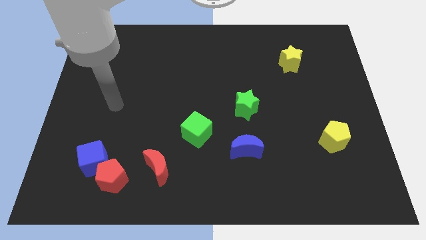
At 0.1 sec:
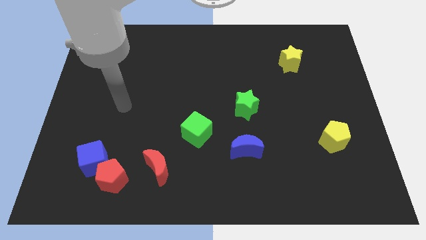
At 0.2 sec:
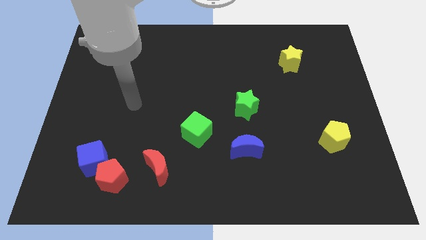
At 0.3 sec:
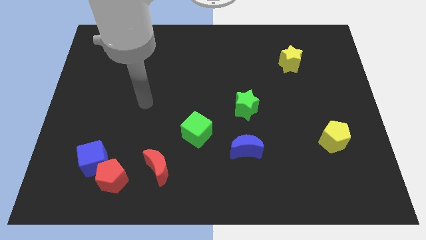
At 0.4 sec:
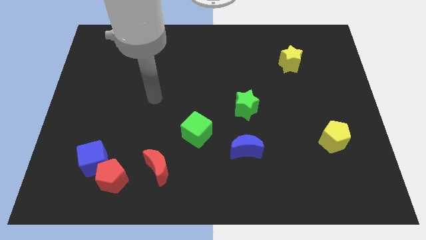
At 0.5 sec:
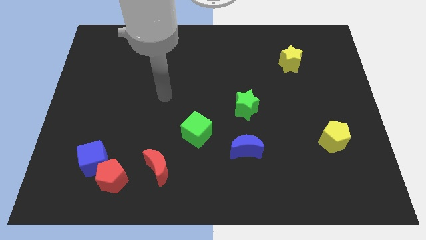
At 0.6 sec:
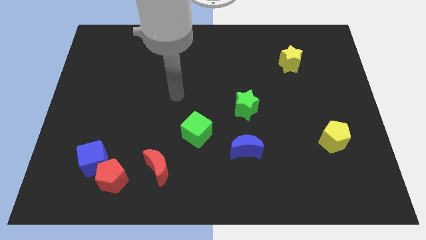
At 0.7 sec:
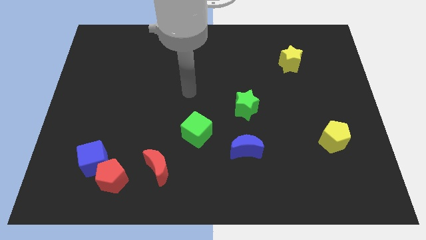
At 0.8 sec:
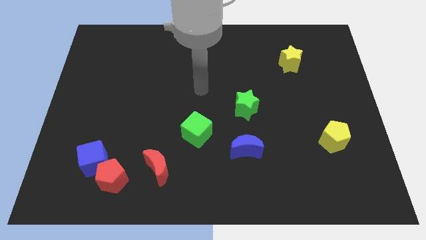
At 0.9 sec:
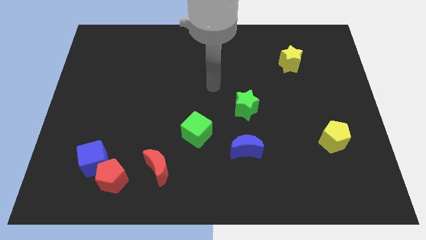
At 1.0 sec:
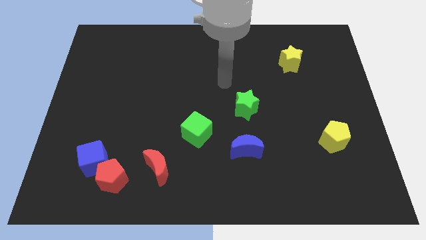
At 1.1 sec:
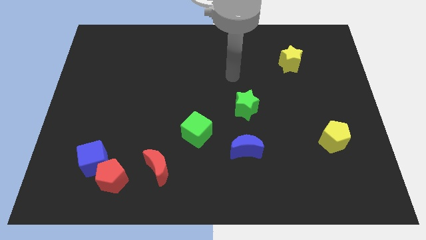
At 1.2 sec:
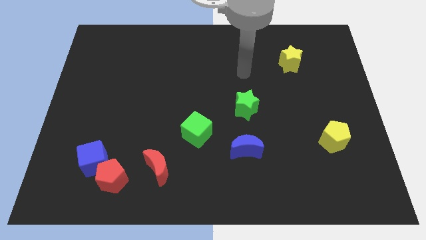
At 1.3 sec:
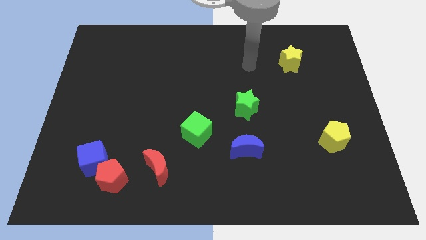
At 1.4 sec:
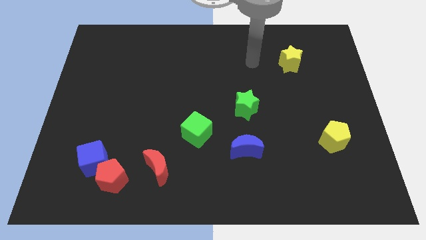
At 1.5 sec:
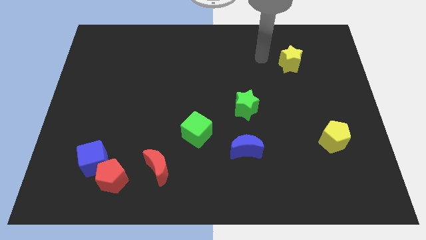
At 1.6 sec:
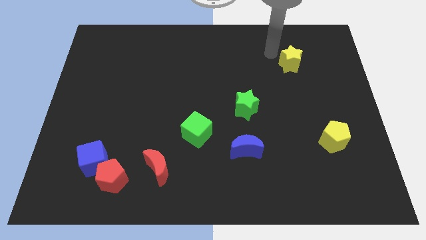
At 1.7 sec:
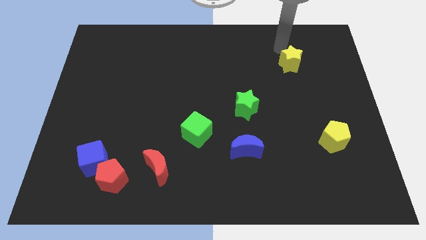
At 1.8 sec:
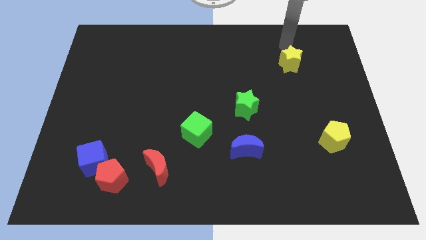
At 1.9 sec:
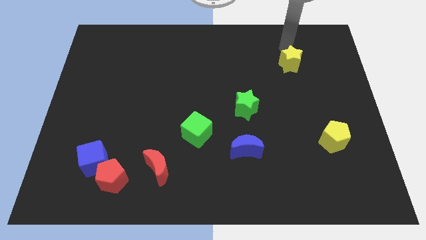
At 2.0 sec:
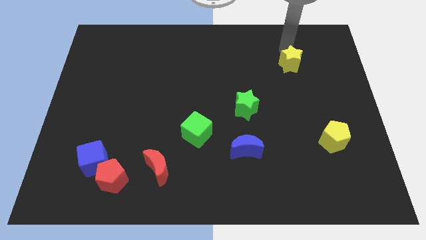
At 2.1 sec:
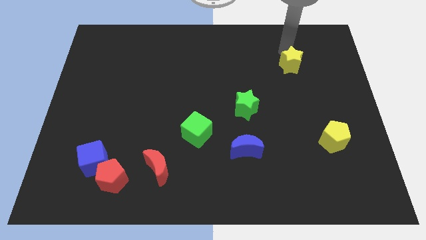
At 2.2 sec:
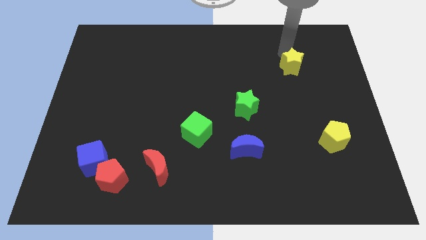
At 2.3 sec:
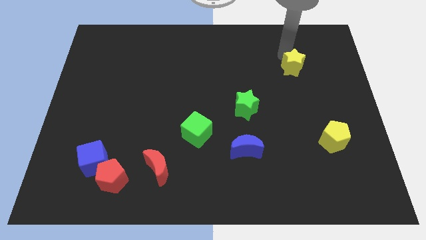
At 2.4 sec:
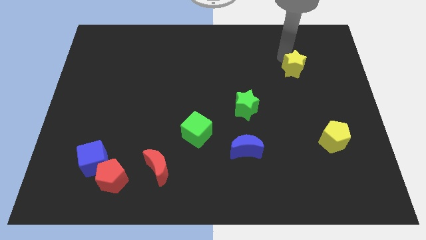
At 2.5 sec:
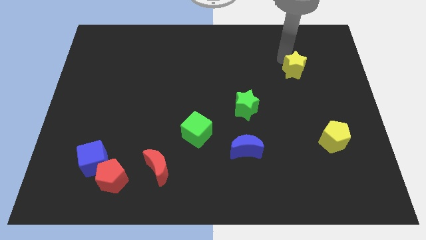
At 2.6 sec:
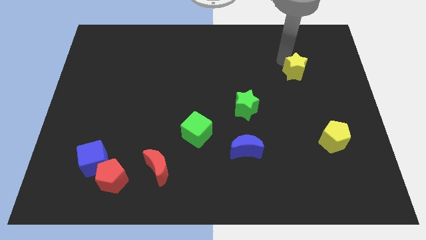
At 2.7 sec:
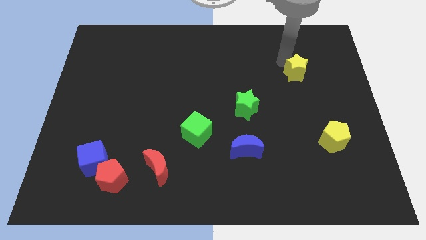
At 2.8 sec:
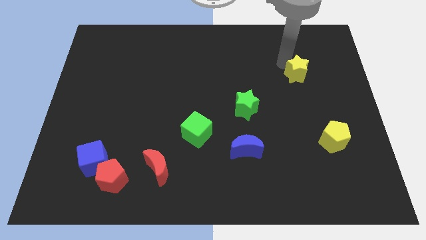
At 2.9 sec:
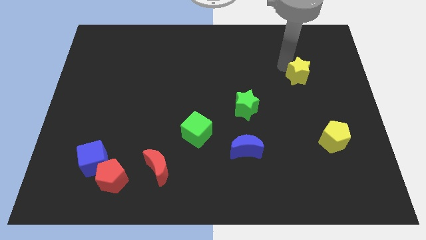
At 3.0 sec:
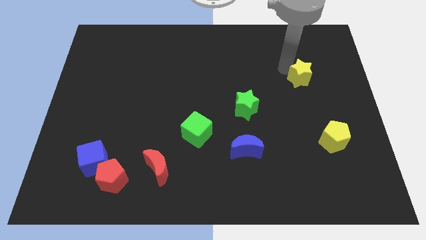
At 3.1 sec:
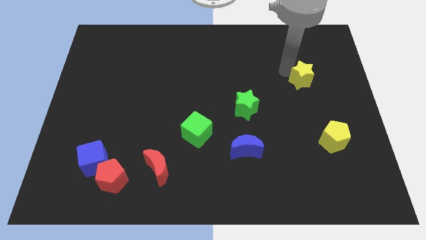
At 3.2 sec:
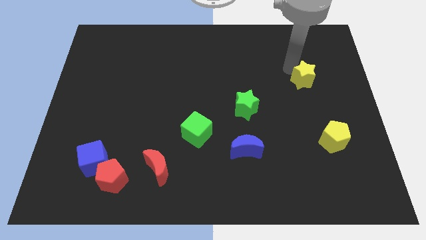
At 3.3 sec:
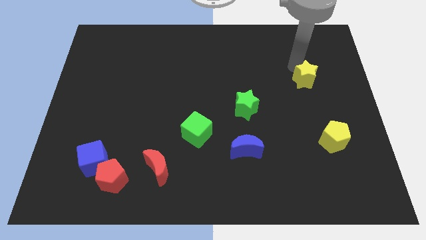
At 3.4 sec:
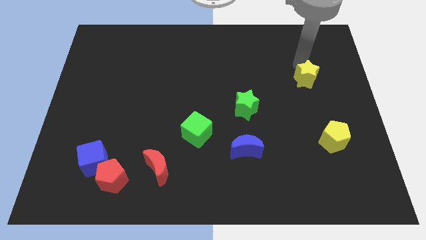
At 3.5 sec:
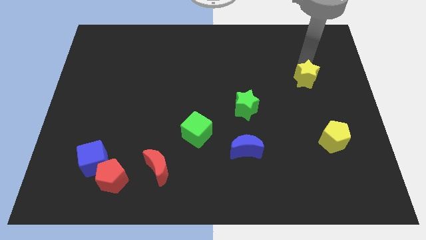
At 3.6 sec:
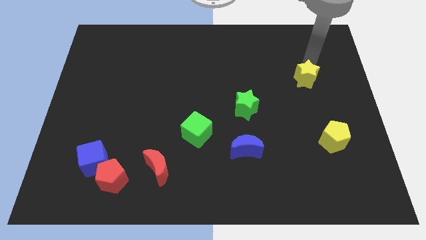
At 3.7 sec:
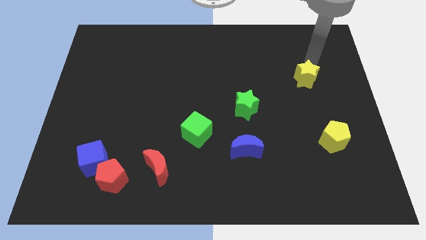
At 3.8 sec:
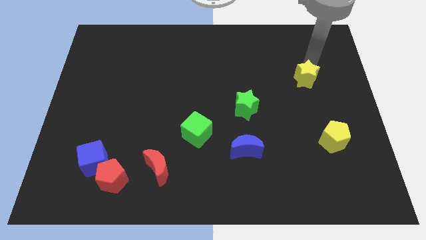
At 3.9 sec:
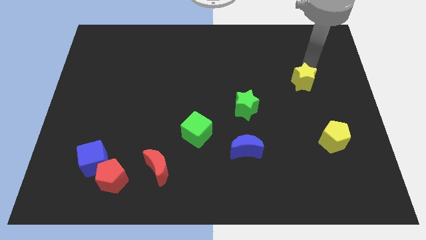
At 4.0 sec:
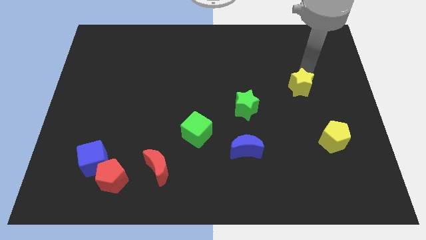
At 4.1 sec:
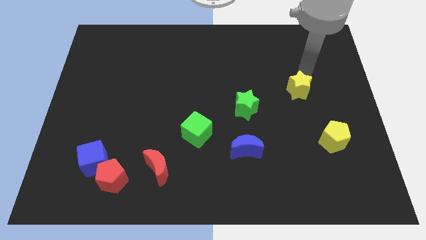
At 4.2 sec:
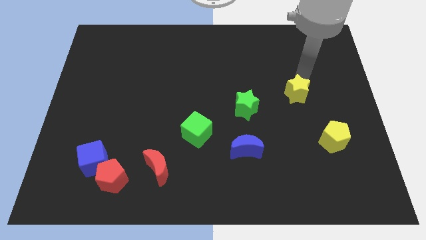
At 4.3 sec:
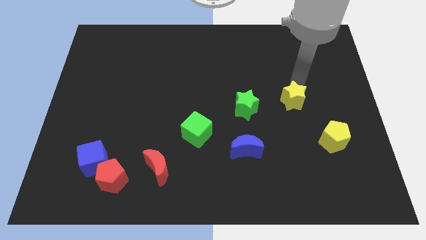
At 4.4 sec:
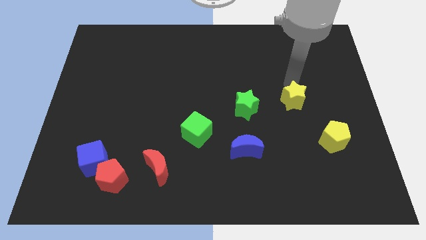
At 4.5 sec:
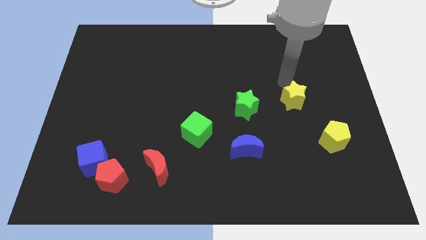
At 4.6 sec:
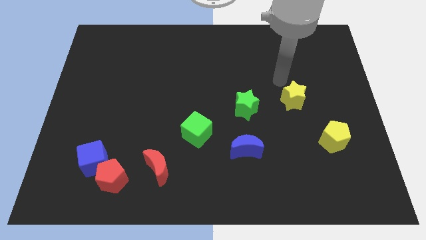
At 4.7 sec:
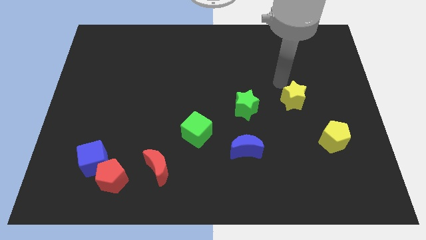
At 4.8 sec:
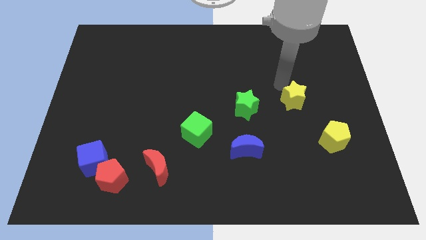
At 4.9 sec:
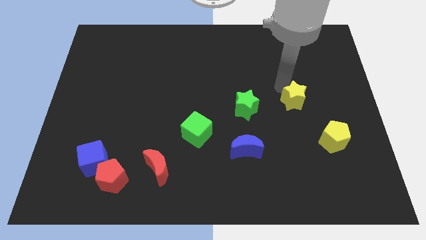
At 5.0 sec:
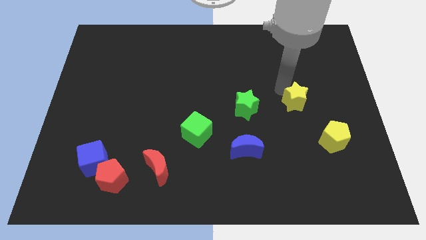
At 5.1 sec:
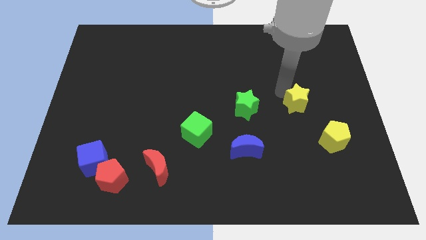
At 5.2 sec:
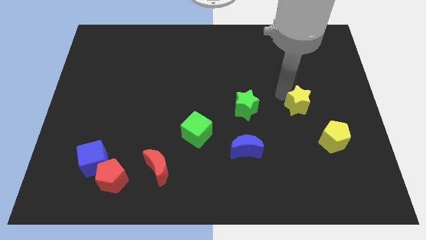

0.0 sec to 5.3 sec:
push the yellow star to the top left side of the yellow pentagon

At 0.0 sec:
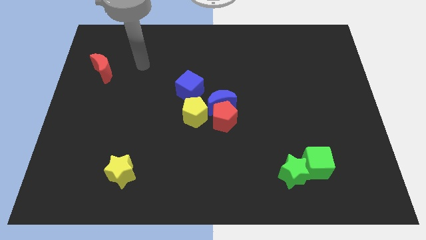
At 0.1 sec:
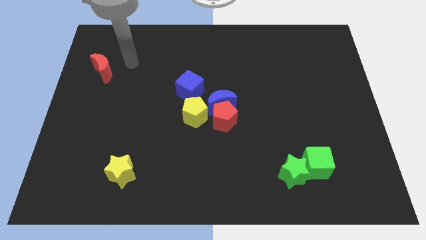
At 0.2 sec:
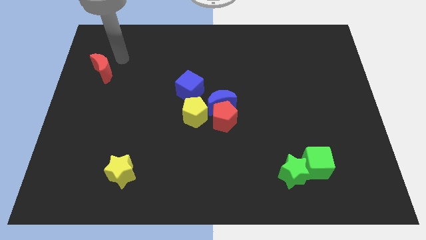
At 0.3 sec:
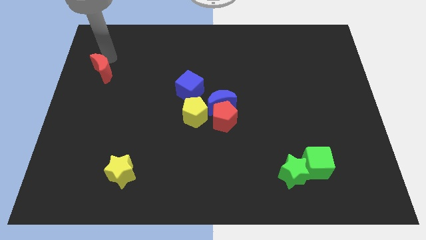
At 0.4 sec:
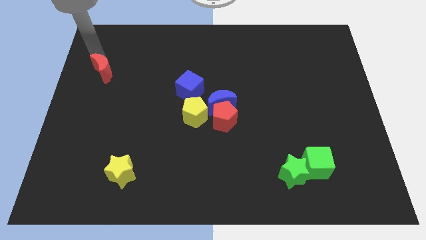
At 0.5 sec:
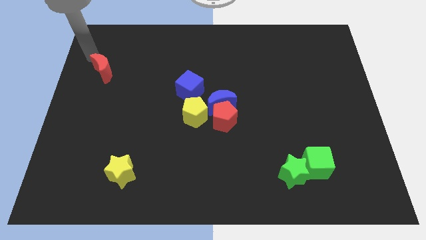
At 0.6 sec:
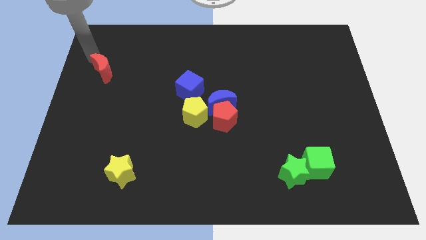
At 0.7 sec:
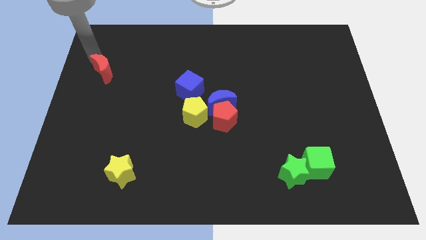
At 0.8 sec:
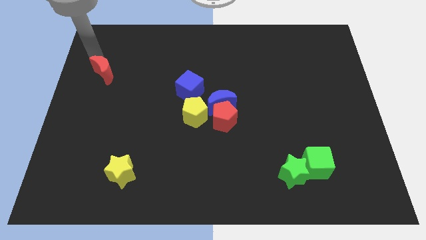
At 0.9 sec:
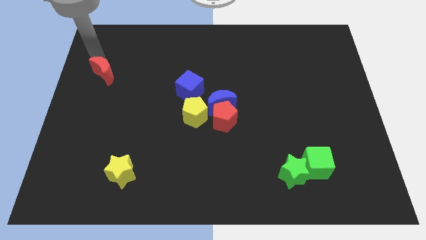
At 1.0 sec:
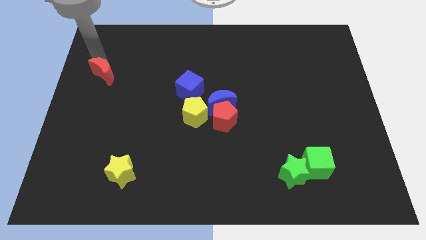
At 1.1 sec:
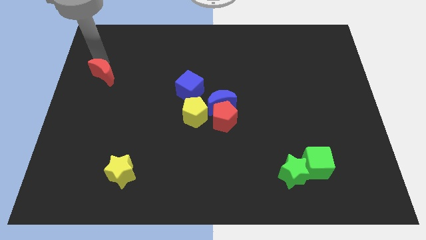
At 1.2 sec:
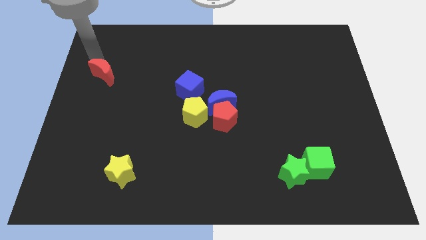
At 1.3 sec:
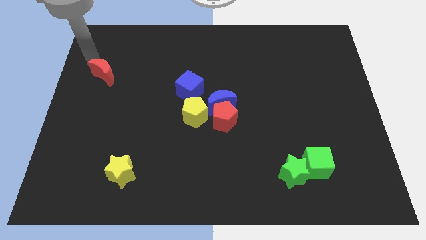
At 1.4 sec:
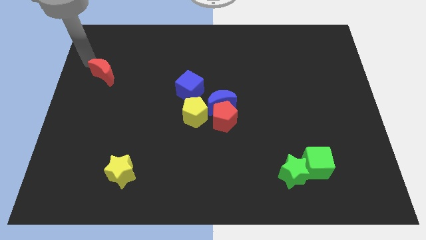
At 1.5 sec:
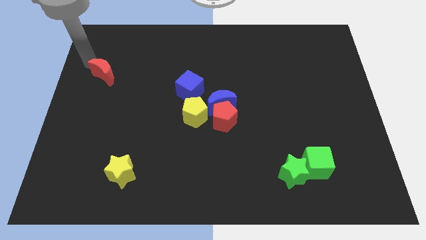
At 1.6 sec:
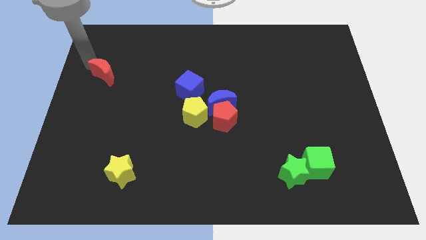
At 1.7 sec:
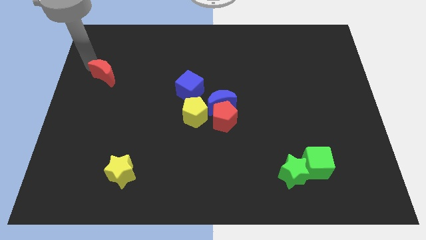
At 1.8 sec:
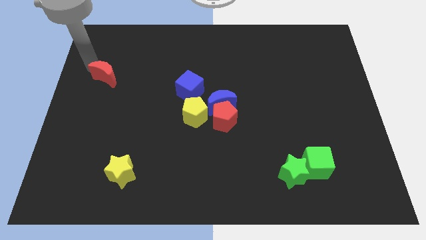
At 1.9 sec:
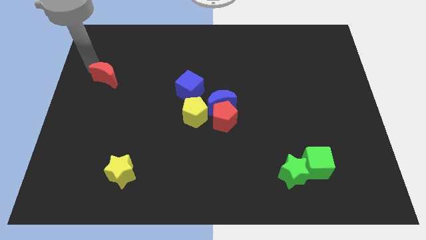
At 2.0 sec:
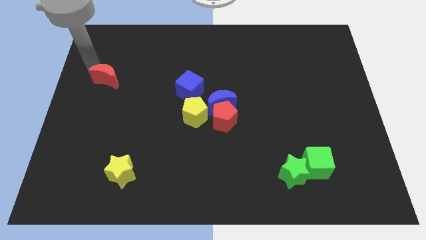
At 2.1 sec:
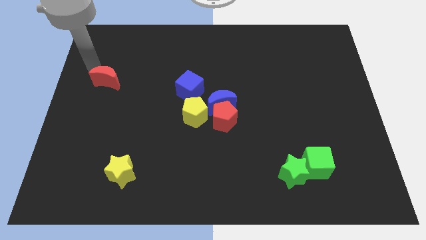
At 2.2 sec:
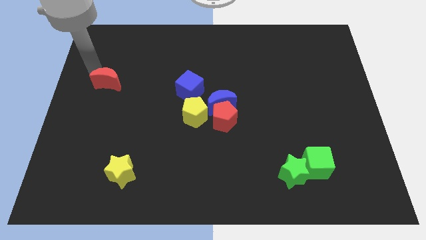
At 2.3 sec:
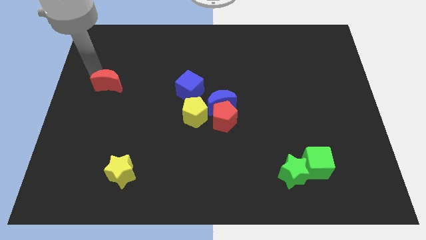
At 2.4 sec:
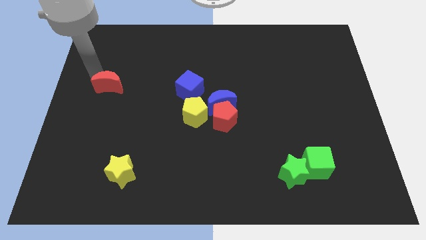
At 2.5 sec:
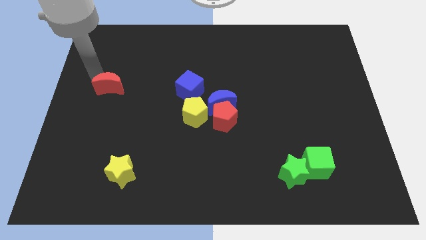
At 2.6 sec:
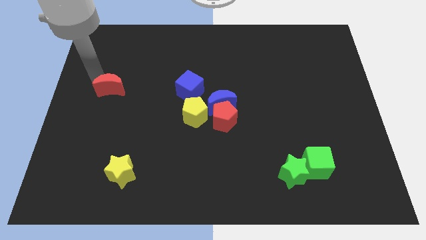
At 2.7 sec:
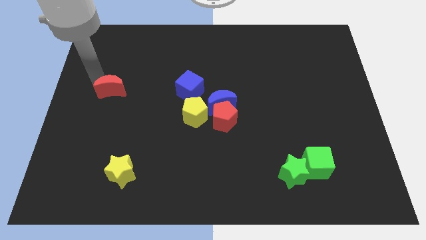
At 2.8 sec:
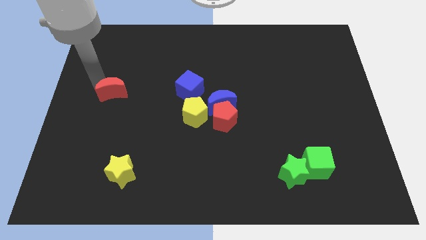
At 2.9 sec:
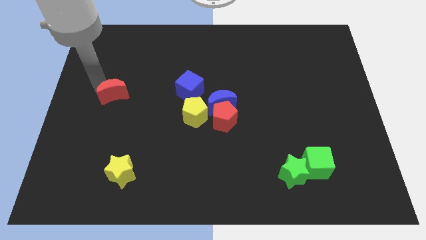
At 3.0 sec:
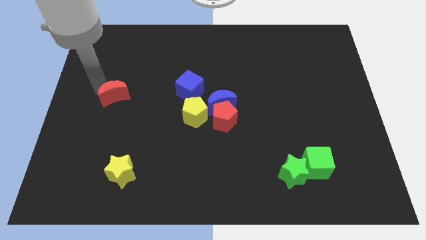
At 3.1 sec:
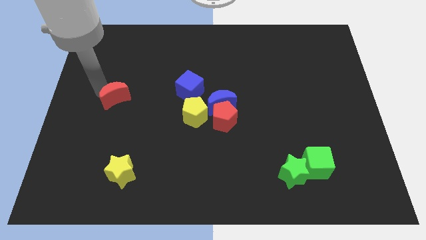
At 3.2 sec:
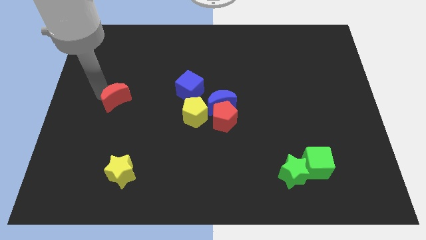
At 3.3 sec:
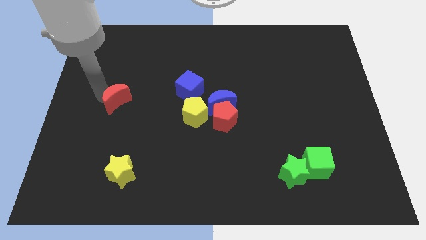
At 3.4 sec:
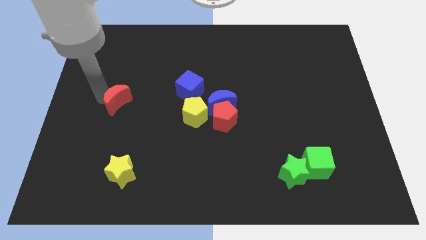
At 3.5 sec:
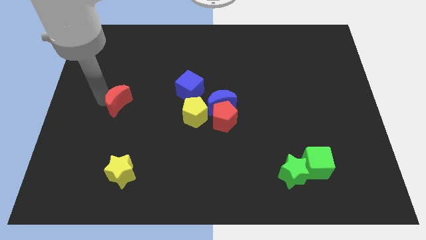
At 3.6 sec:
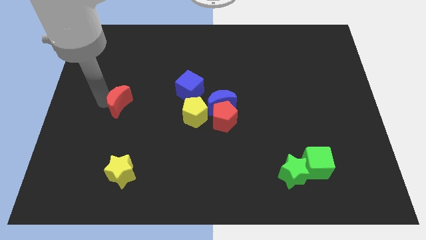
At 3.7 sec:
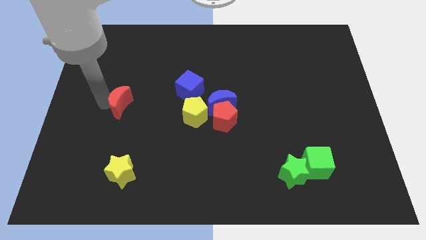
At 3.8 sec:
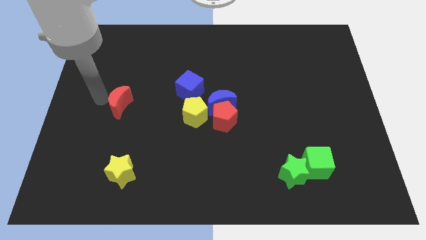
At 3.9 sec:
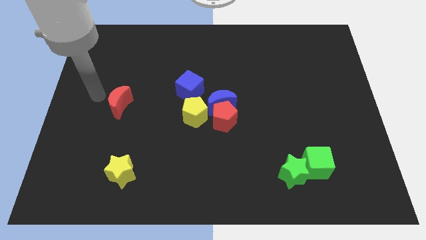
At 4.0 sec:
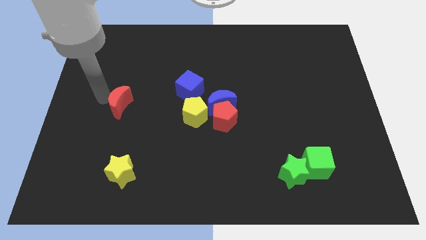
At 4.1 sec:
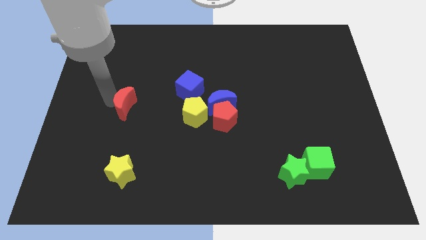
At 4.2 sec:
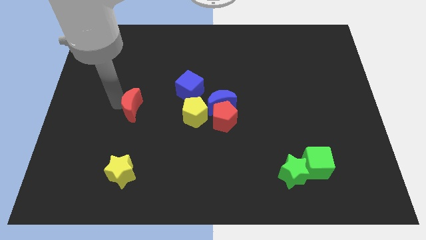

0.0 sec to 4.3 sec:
push the red moon just left of the yellow pentagon
